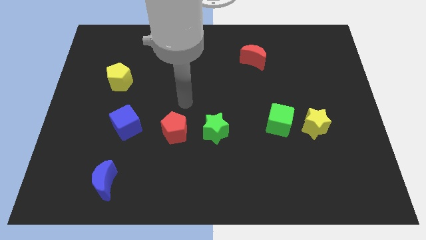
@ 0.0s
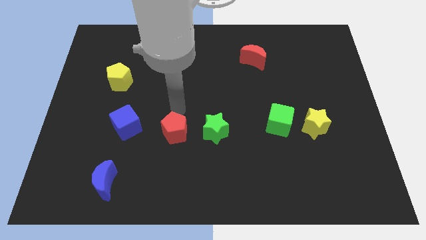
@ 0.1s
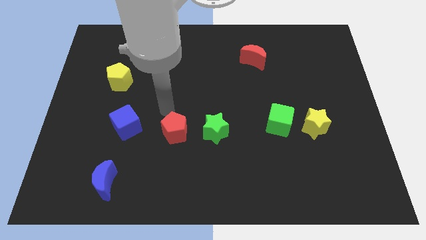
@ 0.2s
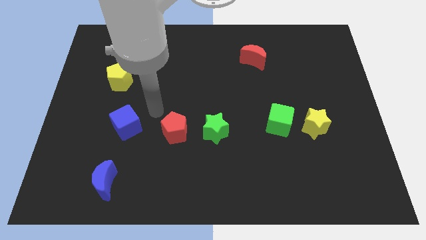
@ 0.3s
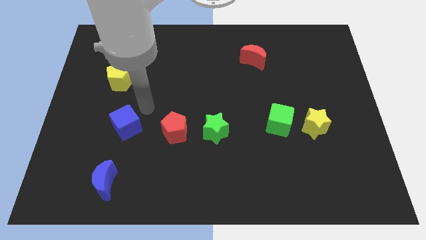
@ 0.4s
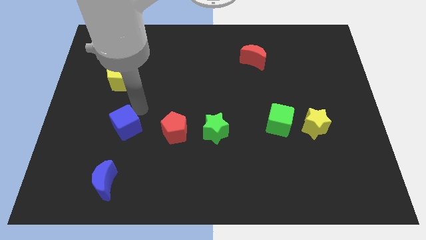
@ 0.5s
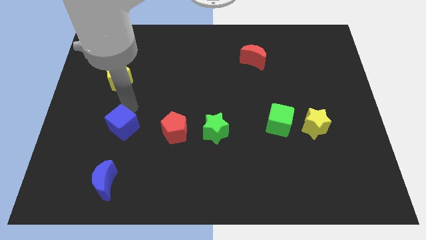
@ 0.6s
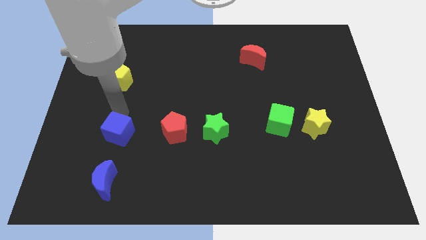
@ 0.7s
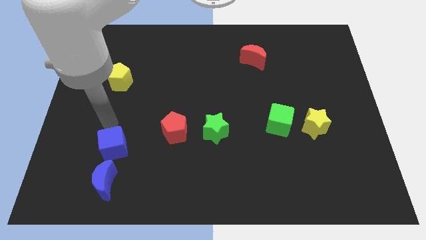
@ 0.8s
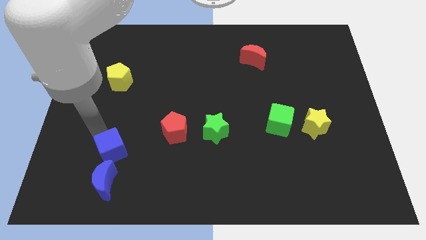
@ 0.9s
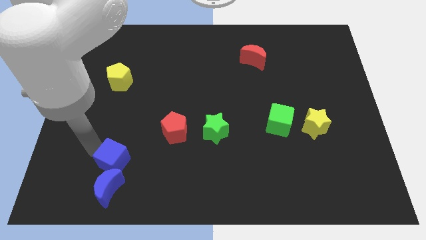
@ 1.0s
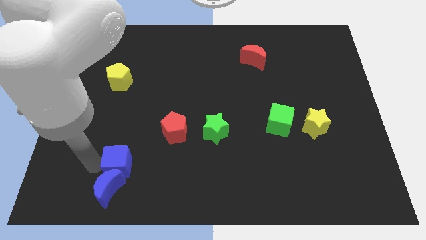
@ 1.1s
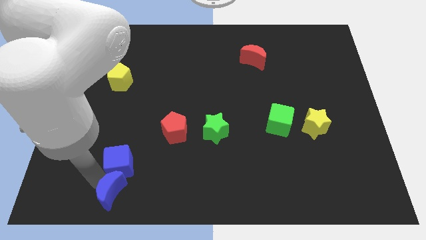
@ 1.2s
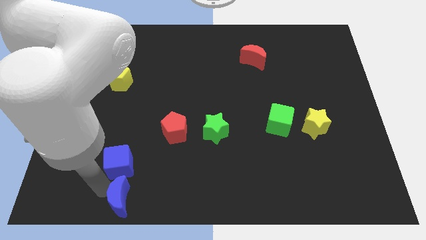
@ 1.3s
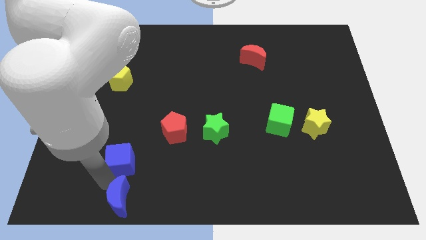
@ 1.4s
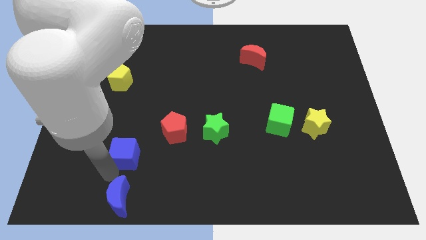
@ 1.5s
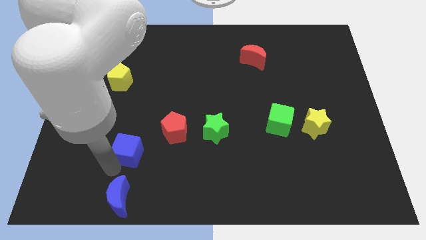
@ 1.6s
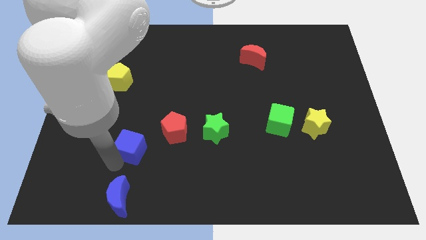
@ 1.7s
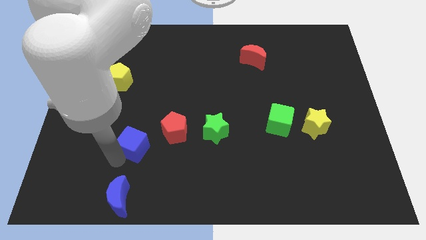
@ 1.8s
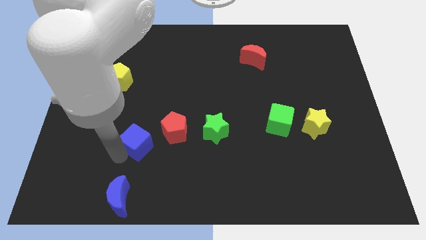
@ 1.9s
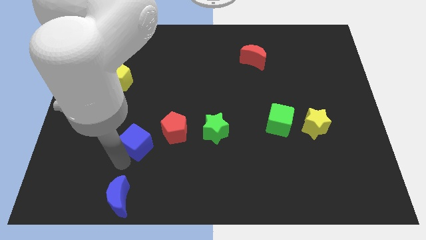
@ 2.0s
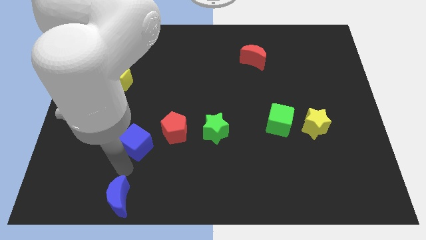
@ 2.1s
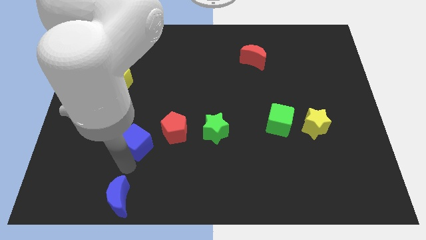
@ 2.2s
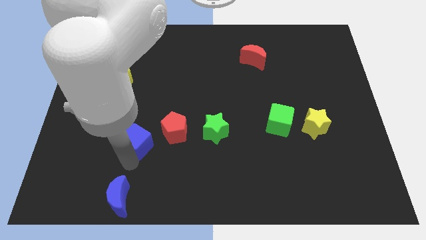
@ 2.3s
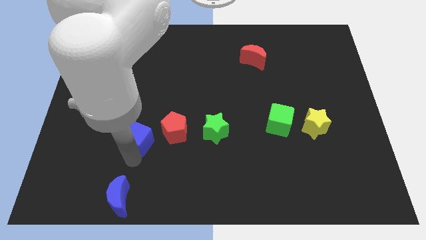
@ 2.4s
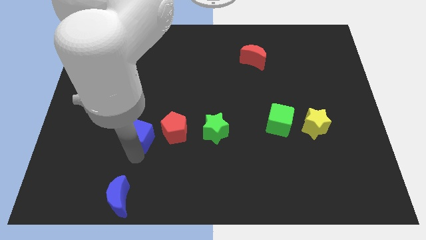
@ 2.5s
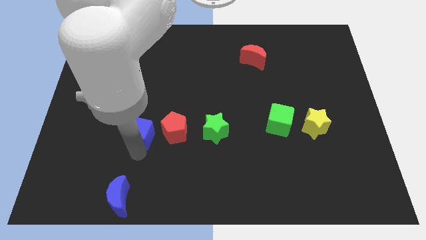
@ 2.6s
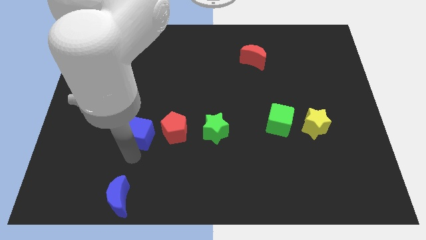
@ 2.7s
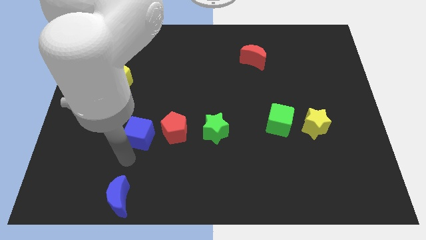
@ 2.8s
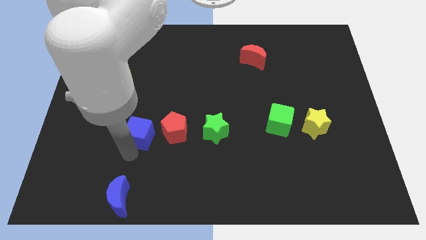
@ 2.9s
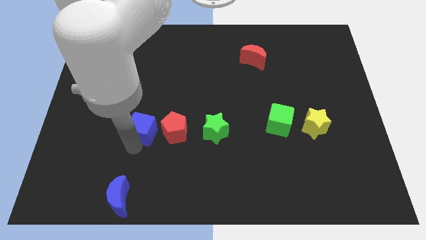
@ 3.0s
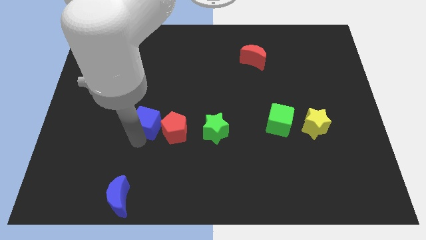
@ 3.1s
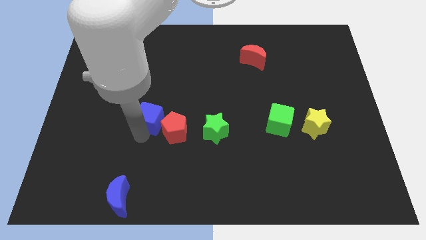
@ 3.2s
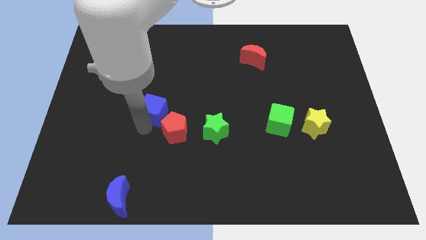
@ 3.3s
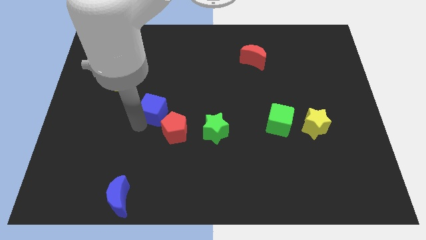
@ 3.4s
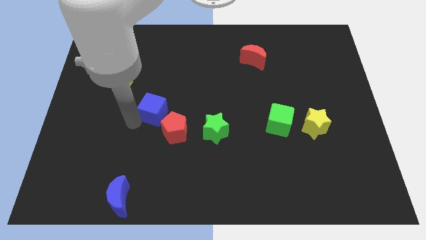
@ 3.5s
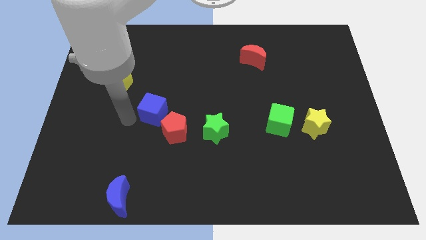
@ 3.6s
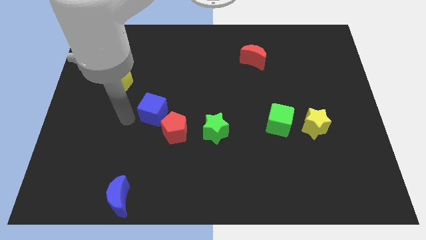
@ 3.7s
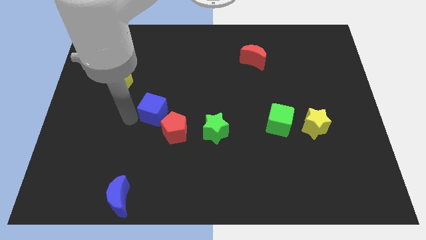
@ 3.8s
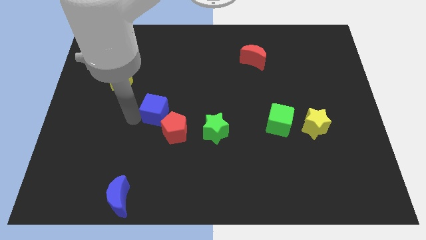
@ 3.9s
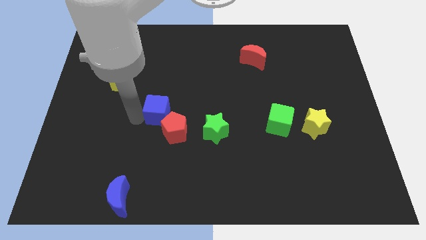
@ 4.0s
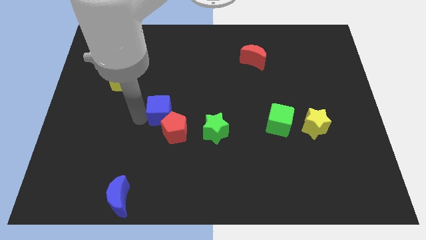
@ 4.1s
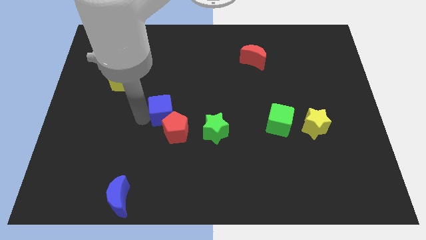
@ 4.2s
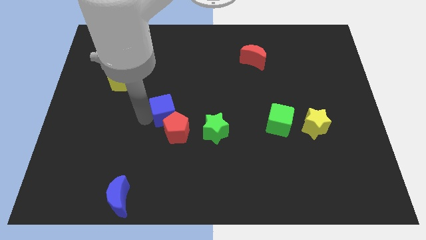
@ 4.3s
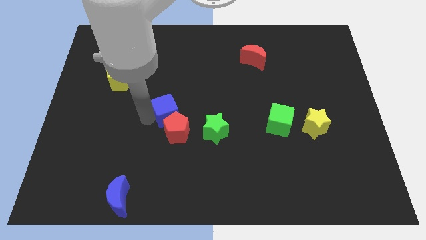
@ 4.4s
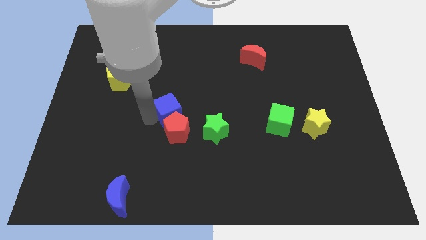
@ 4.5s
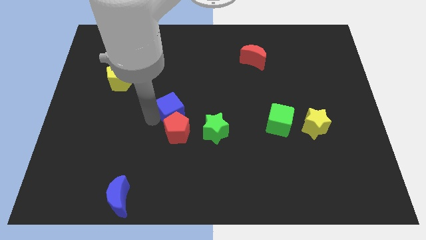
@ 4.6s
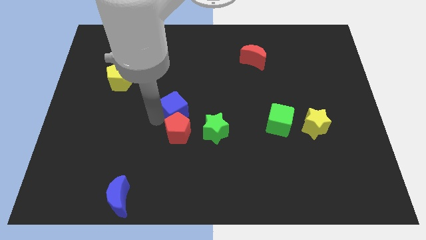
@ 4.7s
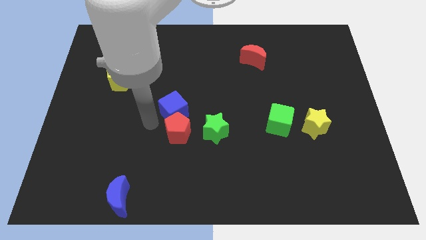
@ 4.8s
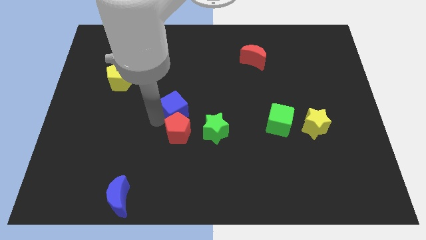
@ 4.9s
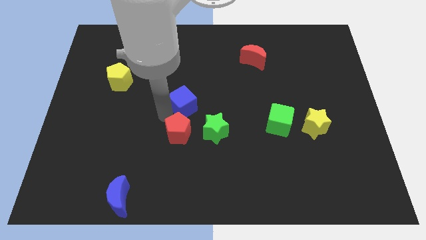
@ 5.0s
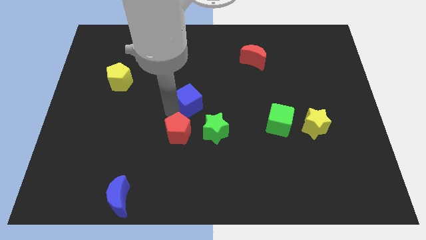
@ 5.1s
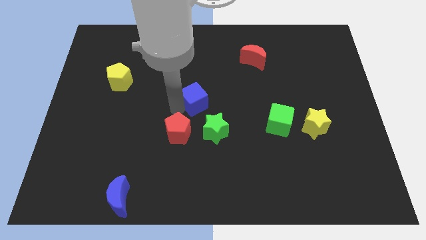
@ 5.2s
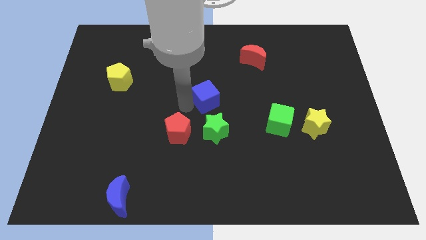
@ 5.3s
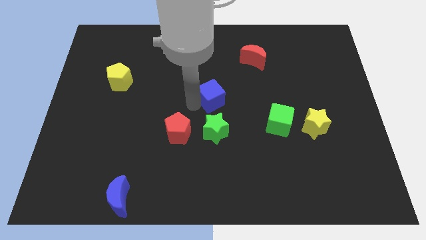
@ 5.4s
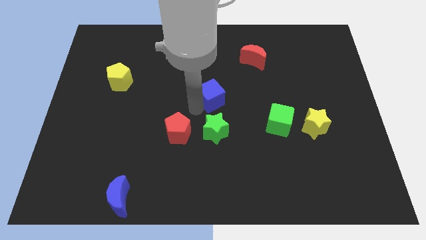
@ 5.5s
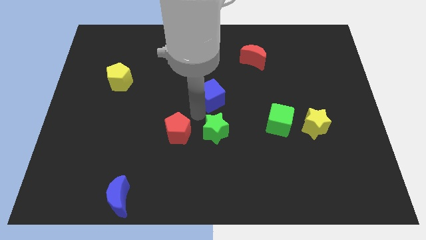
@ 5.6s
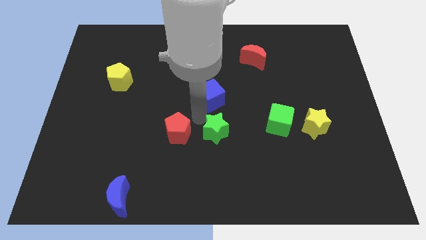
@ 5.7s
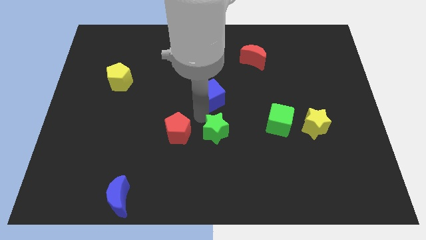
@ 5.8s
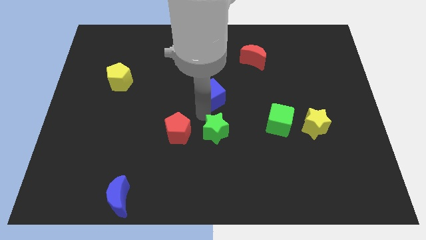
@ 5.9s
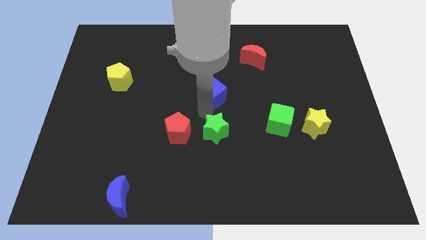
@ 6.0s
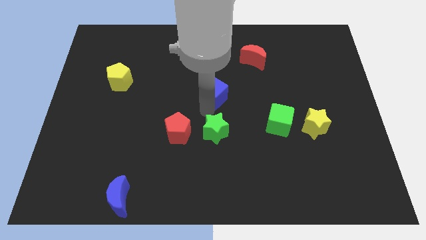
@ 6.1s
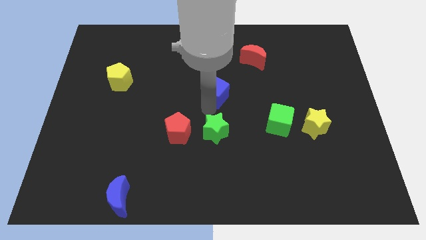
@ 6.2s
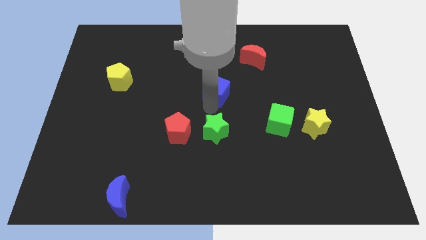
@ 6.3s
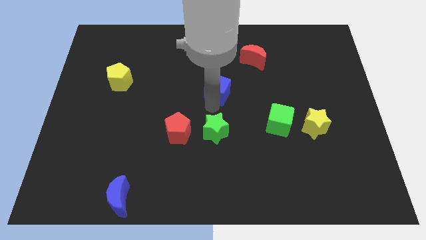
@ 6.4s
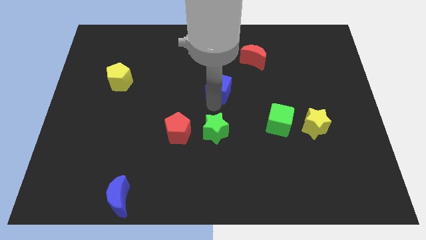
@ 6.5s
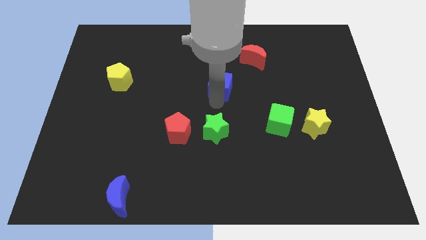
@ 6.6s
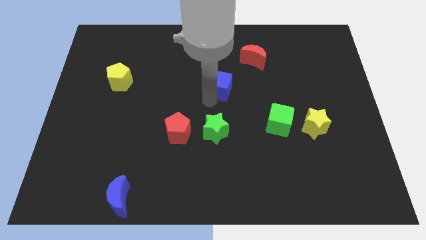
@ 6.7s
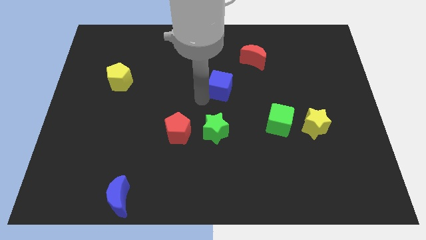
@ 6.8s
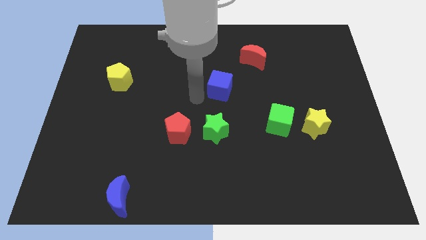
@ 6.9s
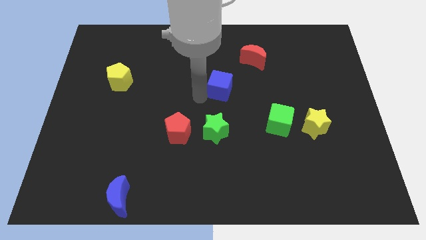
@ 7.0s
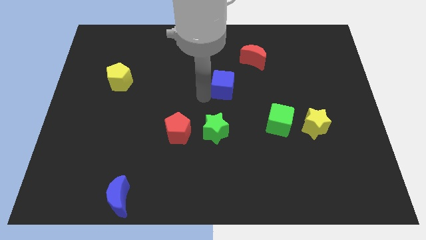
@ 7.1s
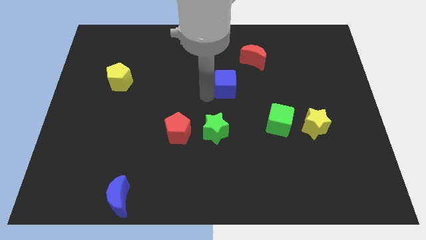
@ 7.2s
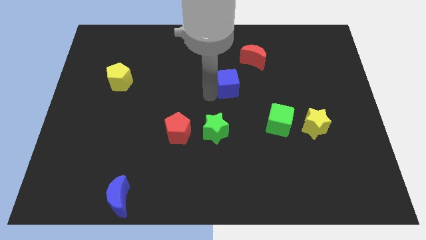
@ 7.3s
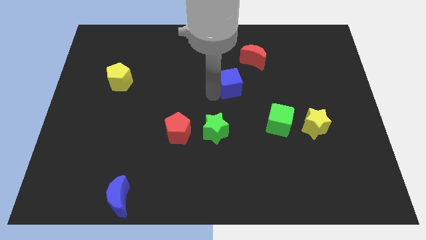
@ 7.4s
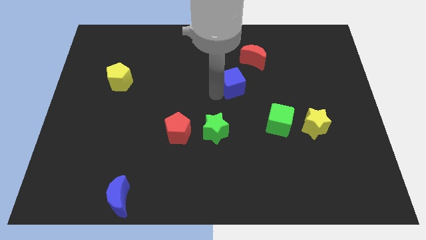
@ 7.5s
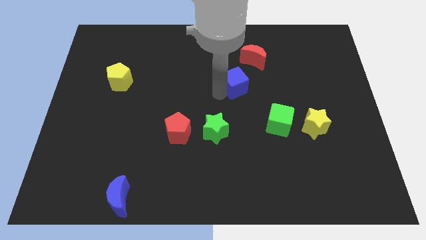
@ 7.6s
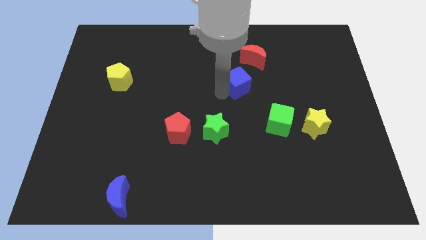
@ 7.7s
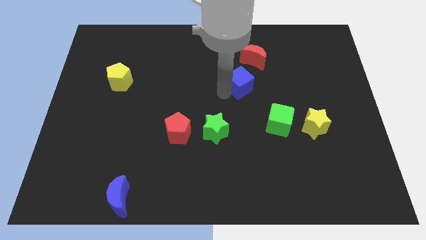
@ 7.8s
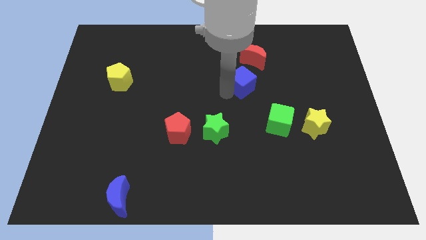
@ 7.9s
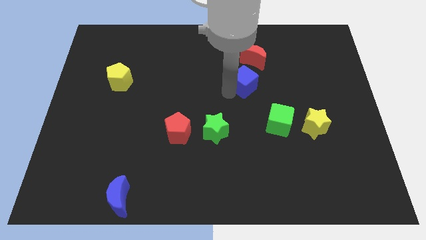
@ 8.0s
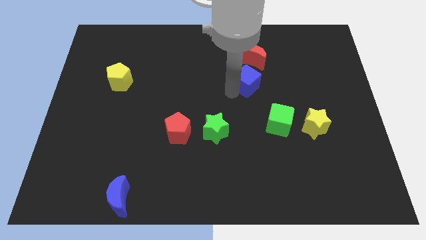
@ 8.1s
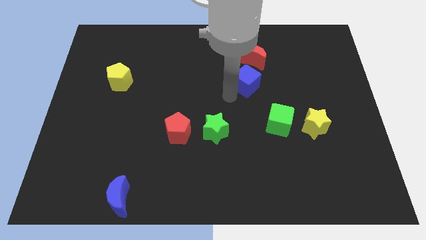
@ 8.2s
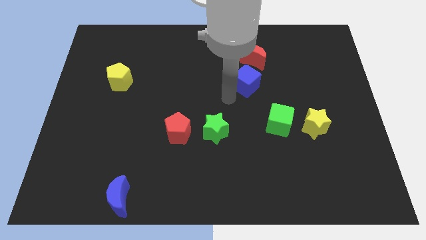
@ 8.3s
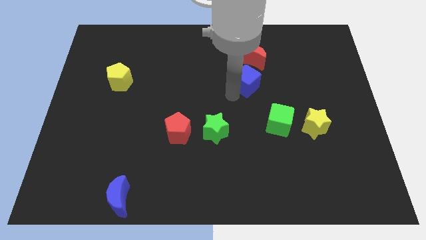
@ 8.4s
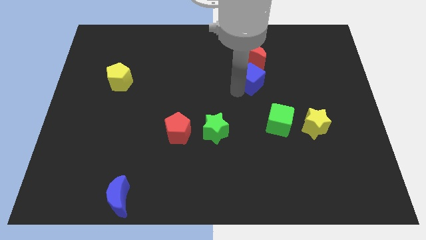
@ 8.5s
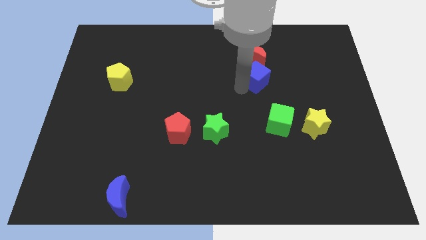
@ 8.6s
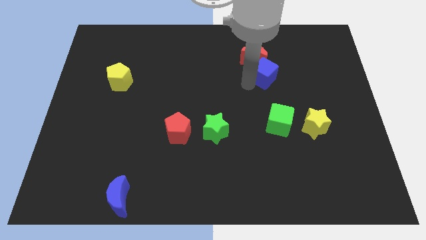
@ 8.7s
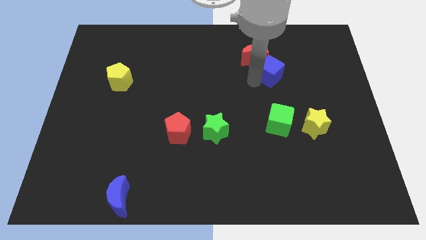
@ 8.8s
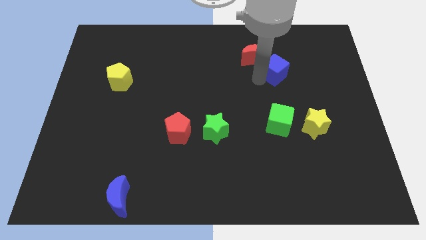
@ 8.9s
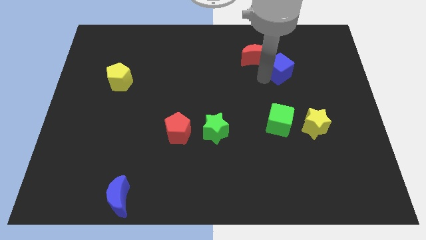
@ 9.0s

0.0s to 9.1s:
slide the blue cube to the right of the red moon
